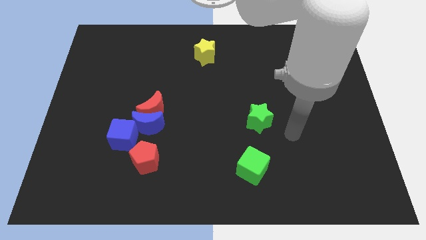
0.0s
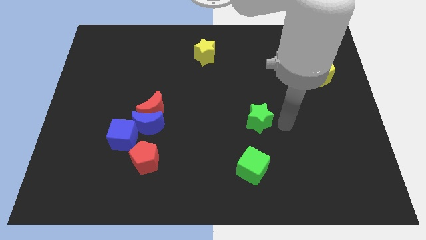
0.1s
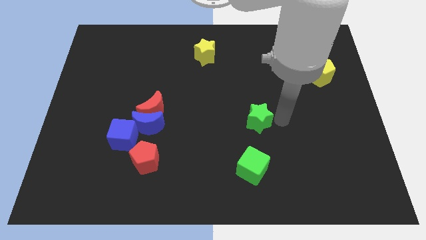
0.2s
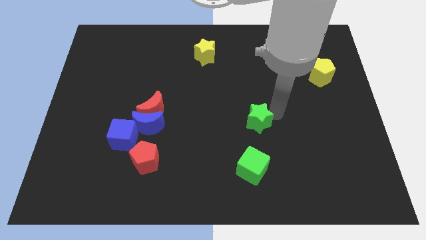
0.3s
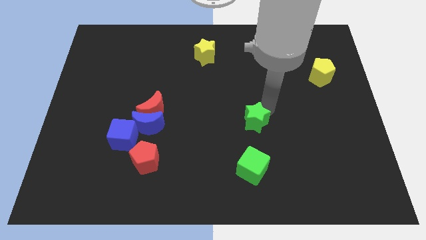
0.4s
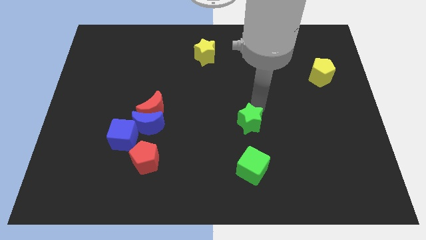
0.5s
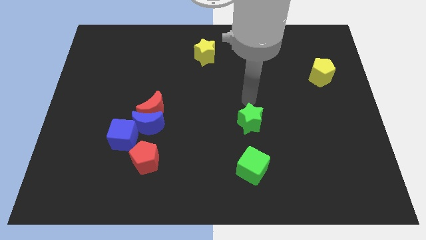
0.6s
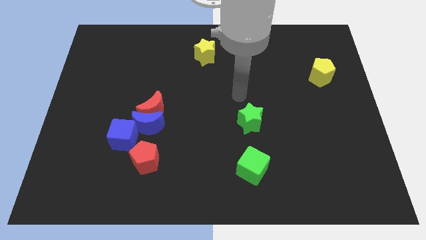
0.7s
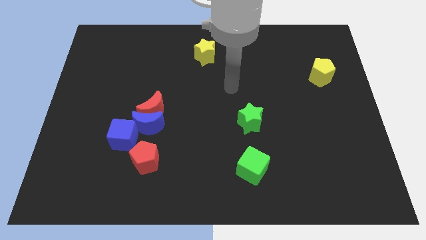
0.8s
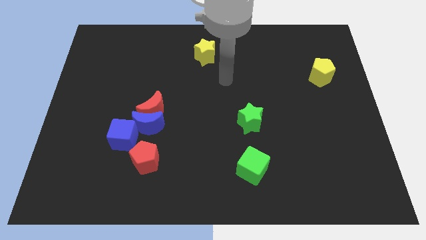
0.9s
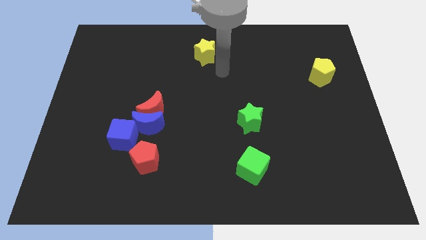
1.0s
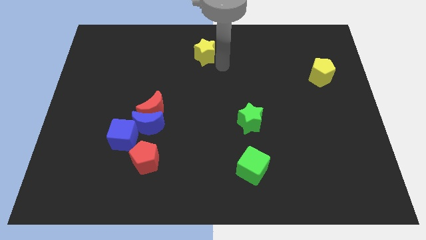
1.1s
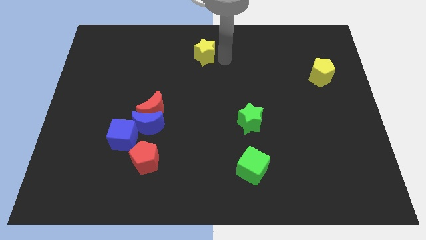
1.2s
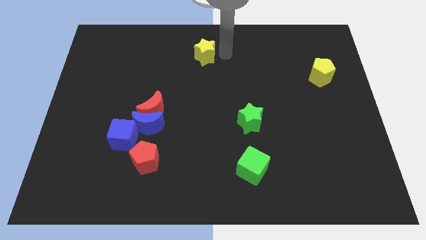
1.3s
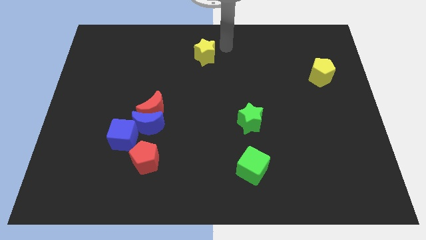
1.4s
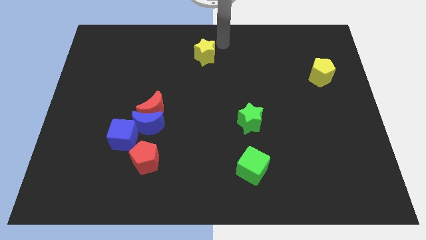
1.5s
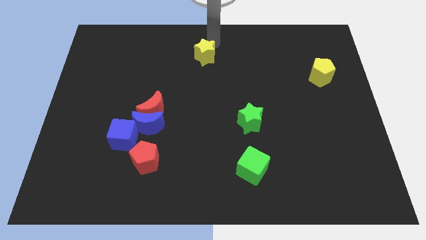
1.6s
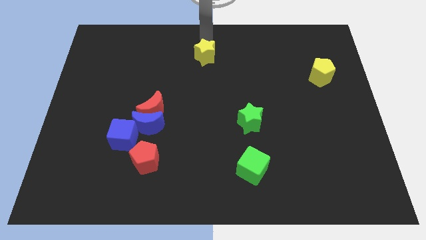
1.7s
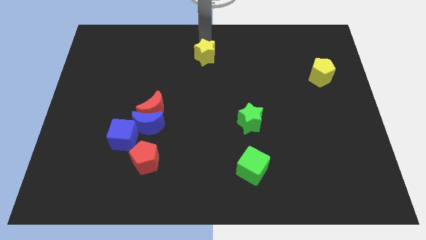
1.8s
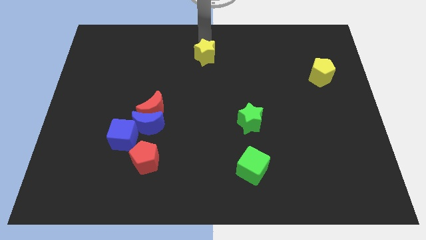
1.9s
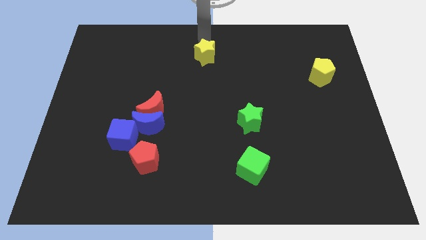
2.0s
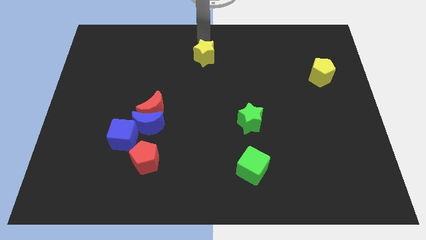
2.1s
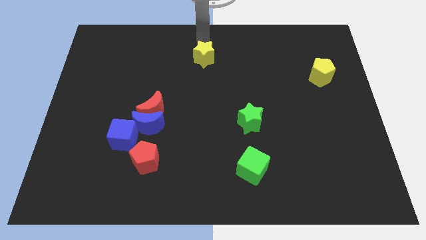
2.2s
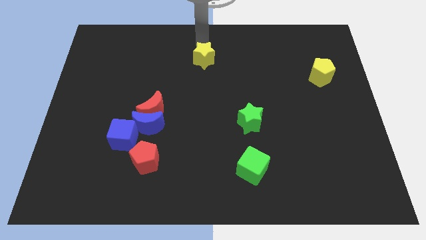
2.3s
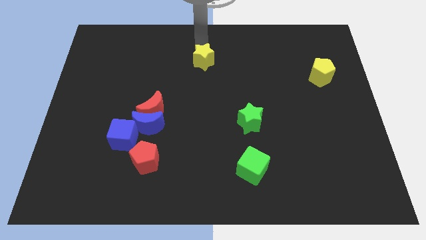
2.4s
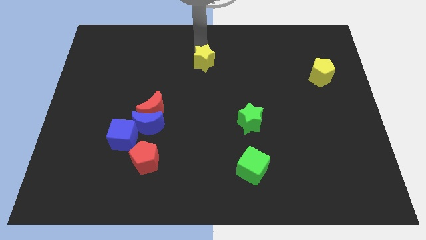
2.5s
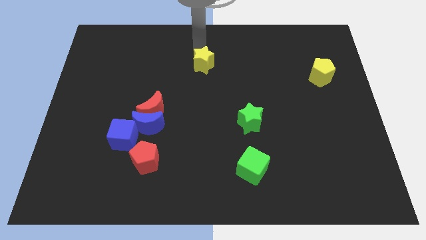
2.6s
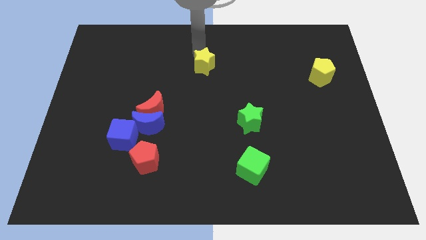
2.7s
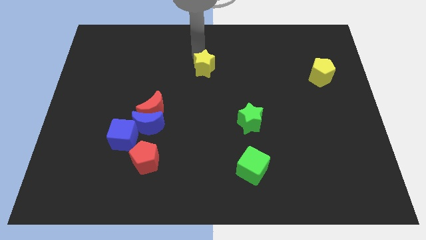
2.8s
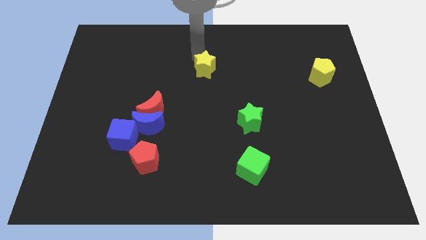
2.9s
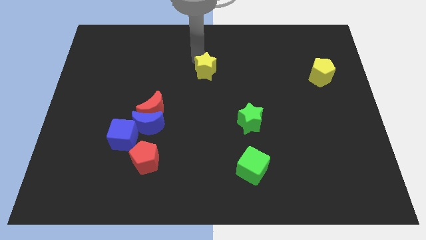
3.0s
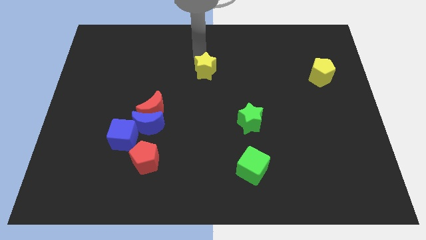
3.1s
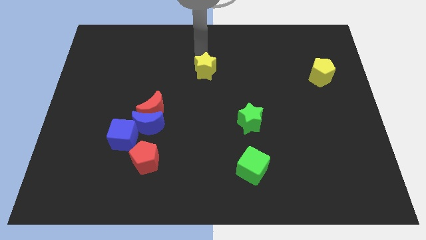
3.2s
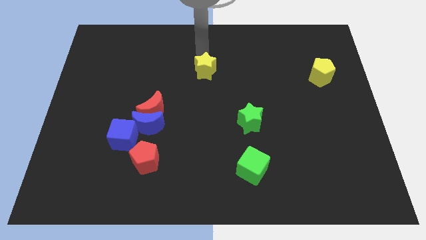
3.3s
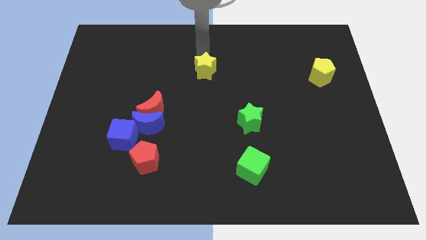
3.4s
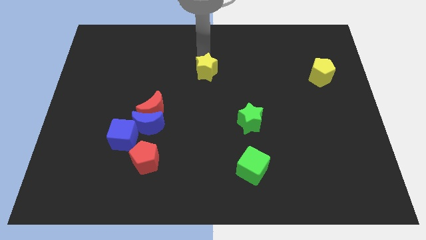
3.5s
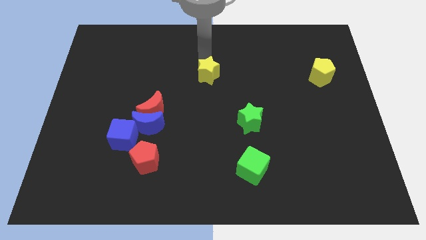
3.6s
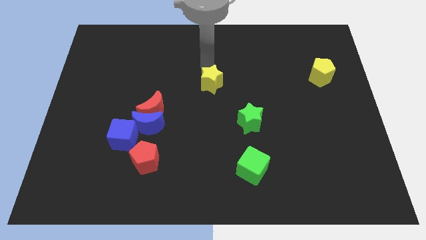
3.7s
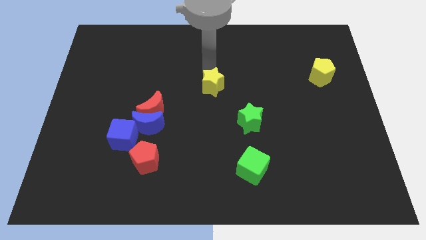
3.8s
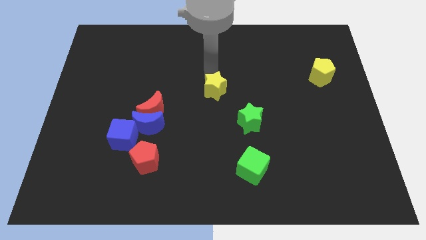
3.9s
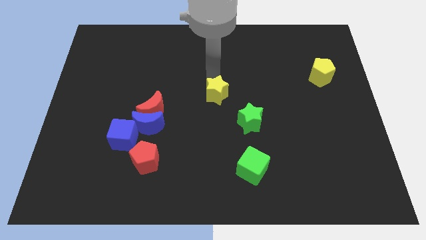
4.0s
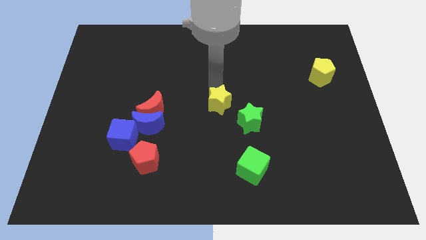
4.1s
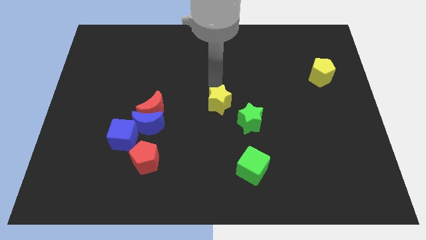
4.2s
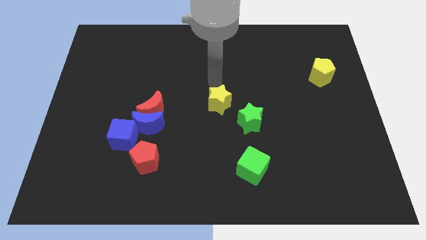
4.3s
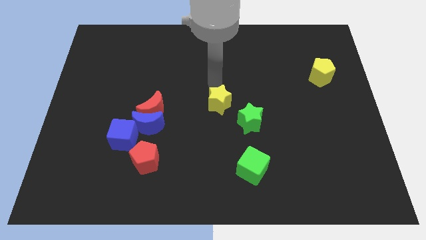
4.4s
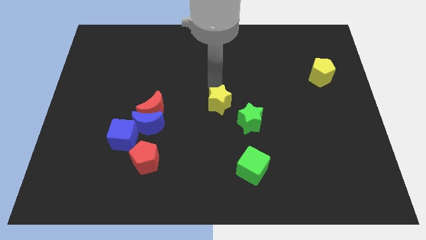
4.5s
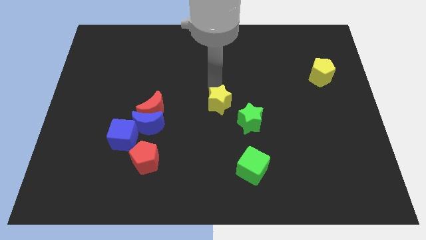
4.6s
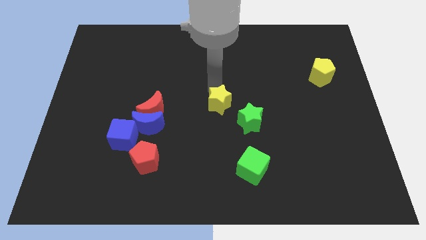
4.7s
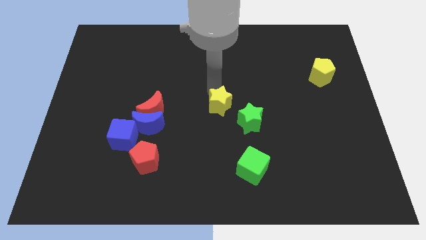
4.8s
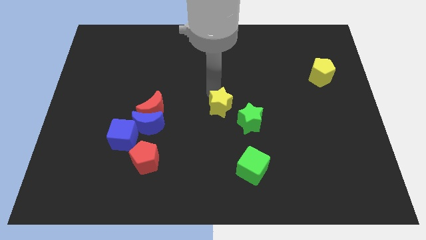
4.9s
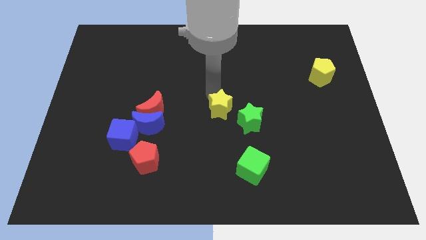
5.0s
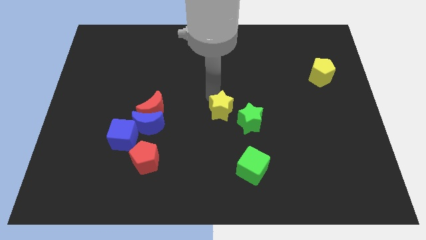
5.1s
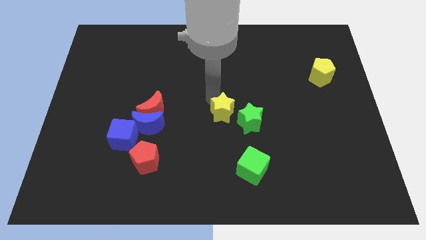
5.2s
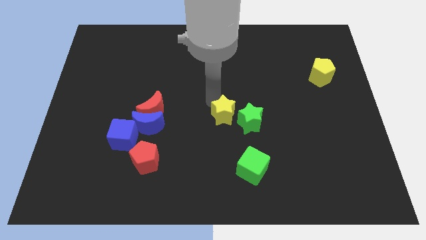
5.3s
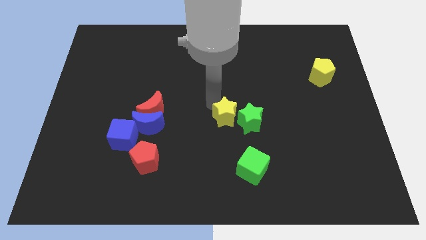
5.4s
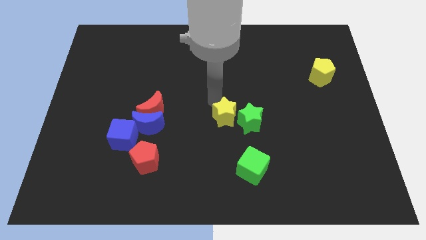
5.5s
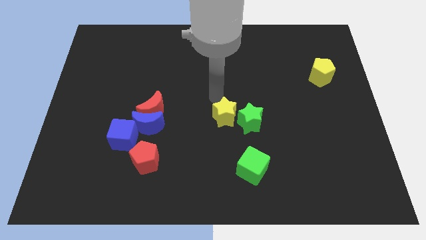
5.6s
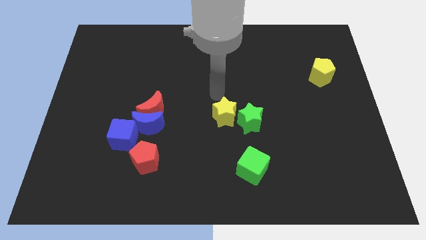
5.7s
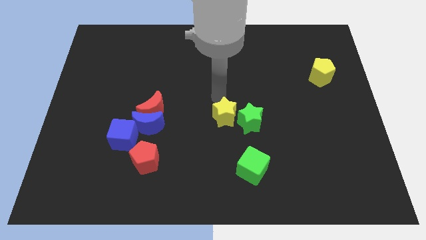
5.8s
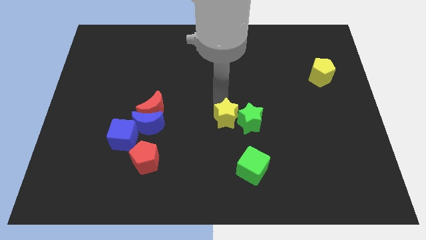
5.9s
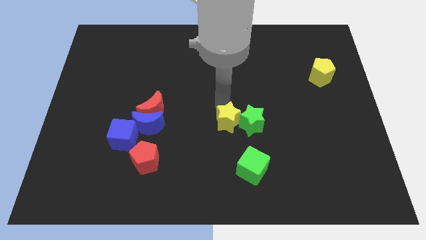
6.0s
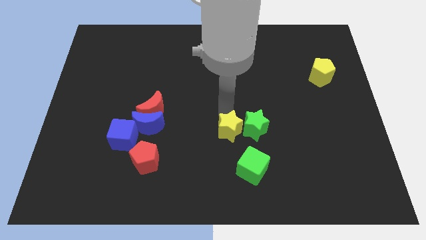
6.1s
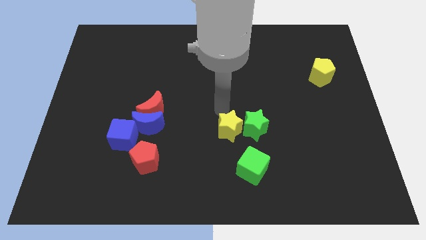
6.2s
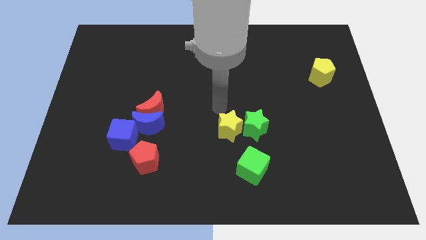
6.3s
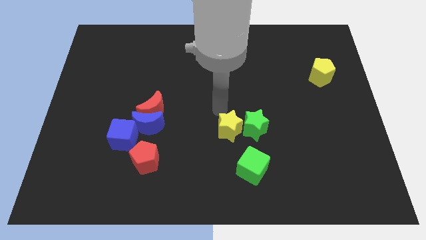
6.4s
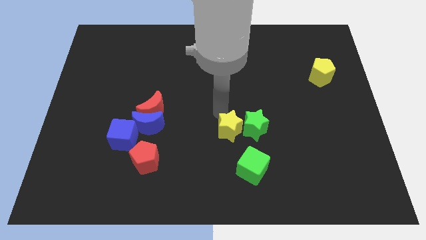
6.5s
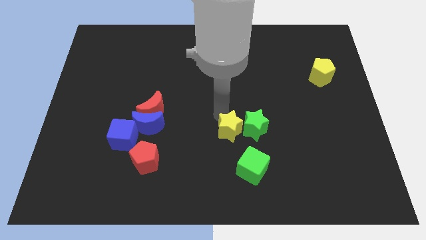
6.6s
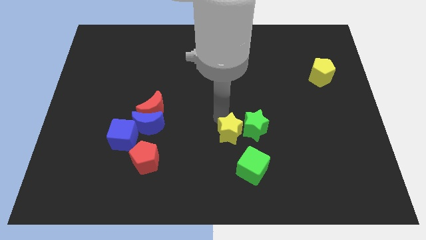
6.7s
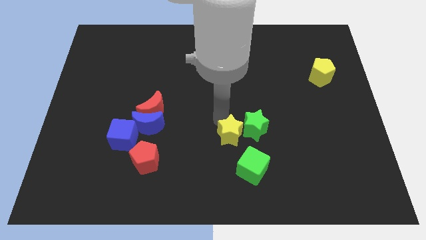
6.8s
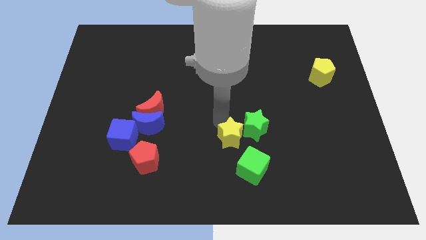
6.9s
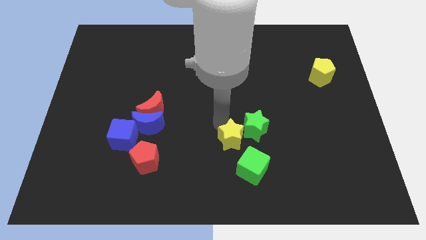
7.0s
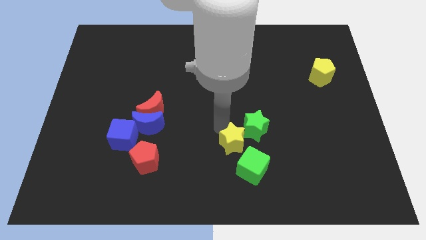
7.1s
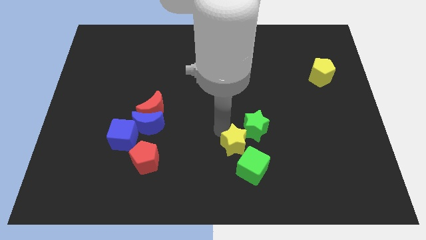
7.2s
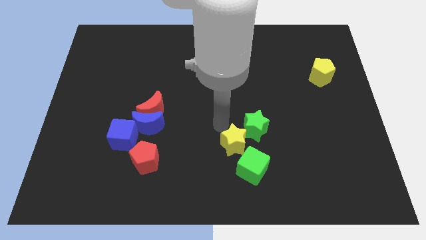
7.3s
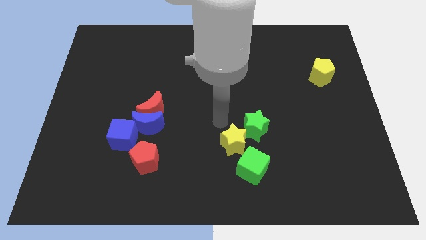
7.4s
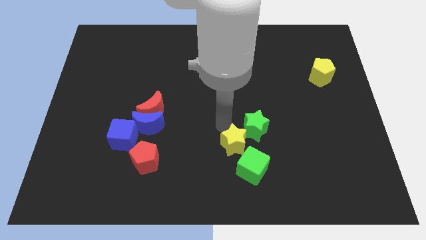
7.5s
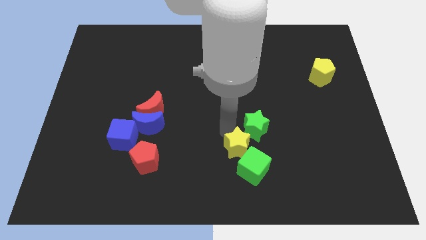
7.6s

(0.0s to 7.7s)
push the yellow star to the green cube

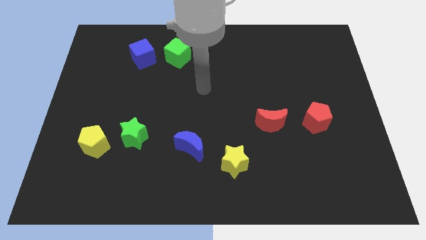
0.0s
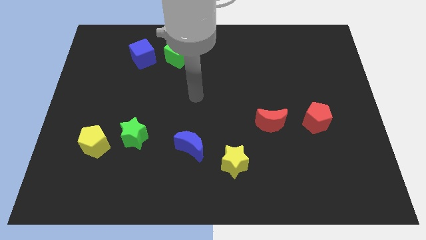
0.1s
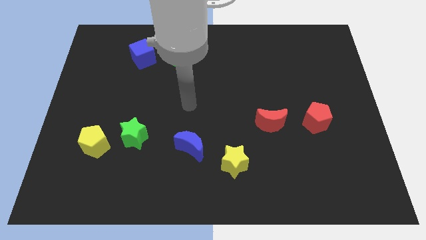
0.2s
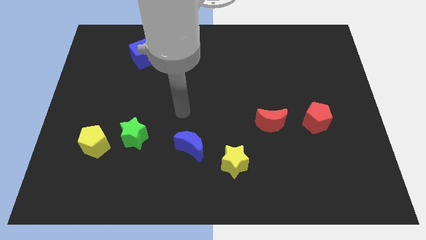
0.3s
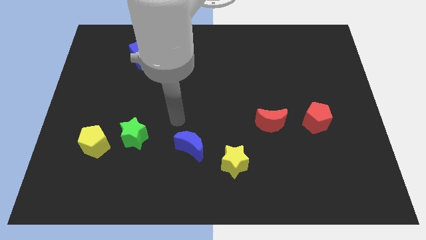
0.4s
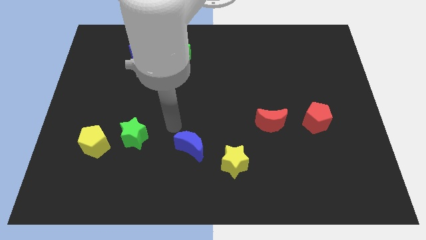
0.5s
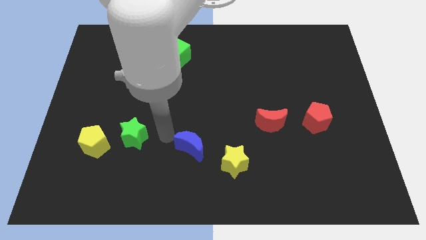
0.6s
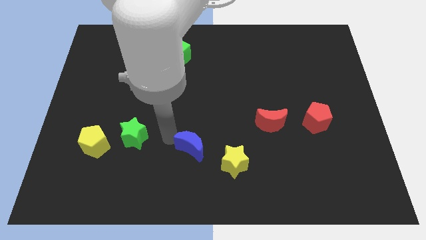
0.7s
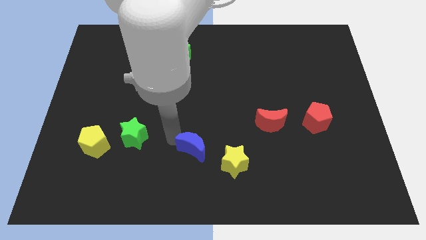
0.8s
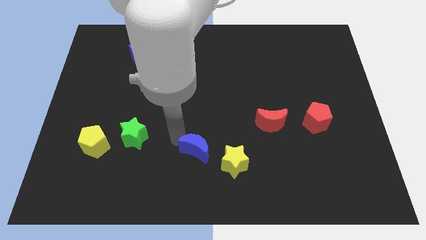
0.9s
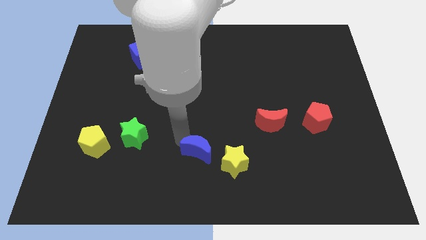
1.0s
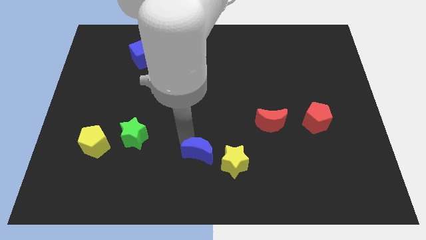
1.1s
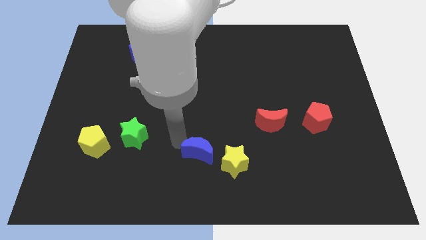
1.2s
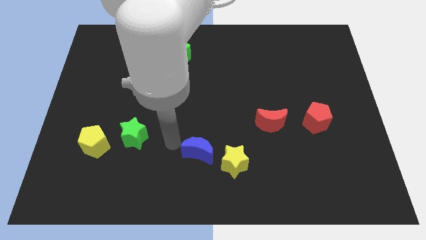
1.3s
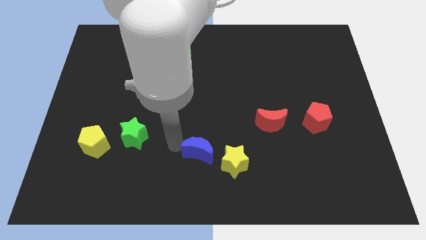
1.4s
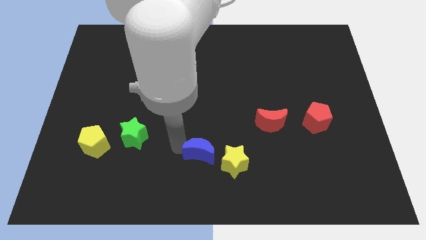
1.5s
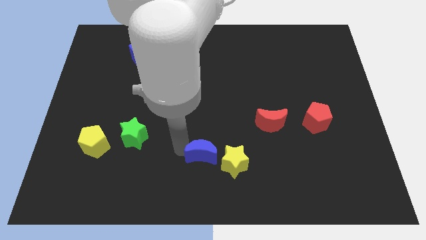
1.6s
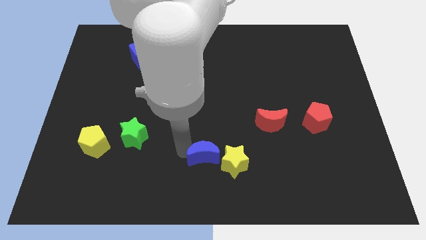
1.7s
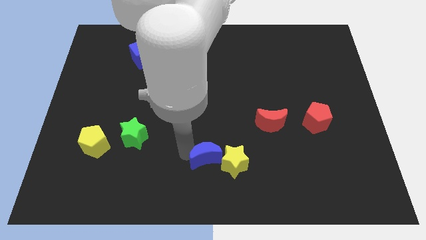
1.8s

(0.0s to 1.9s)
move the blue moon next to the yellow star
